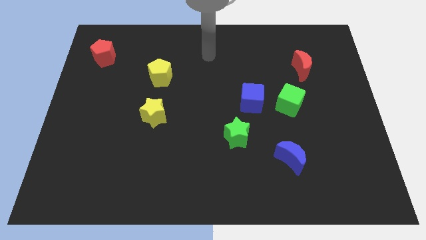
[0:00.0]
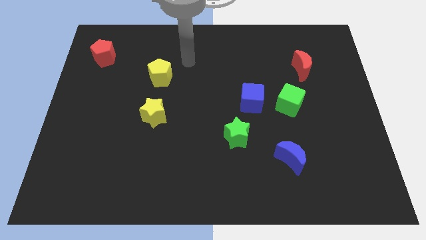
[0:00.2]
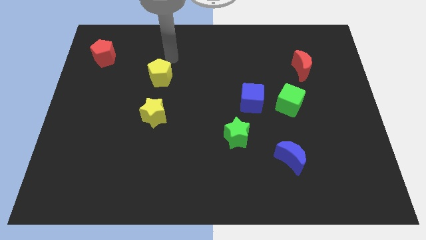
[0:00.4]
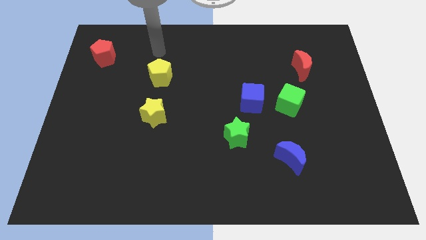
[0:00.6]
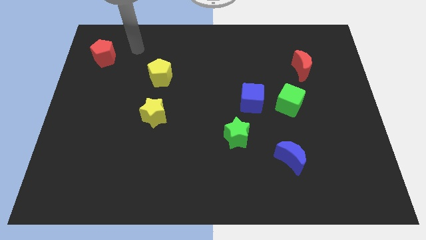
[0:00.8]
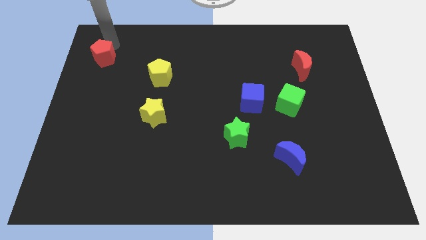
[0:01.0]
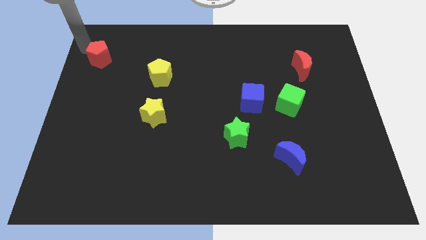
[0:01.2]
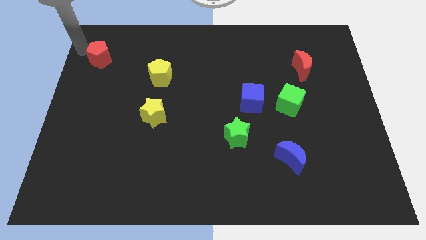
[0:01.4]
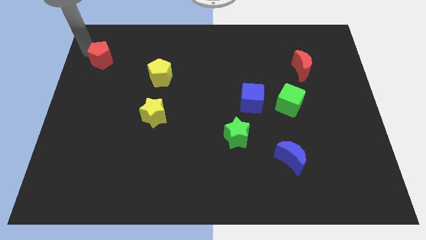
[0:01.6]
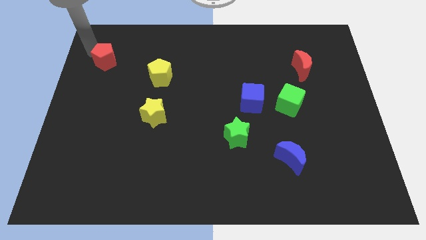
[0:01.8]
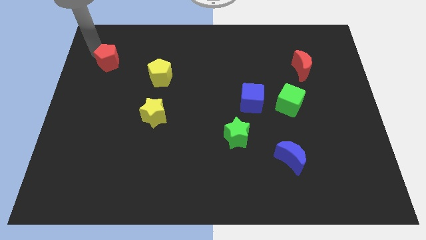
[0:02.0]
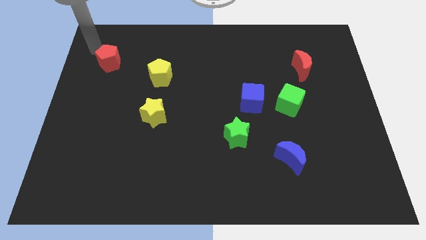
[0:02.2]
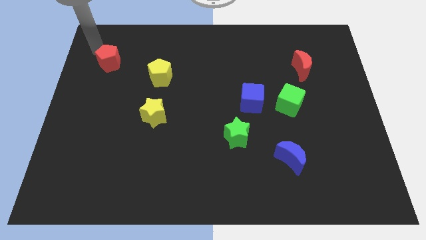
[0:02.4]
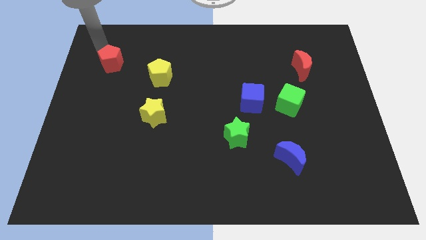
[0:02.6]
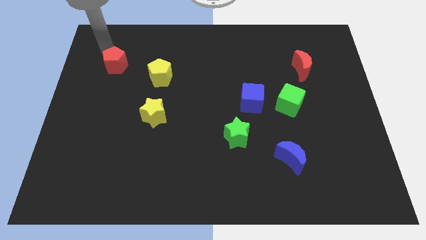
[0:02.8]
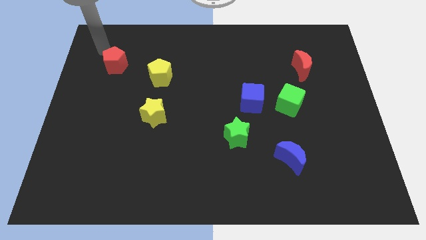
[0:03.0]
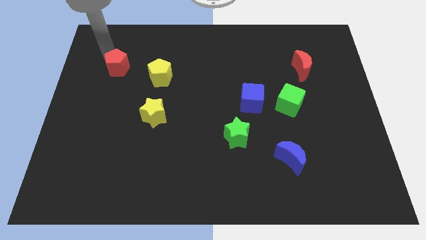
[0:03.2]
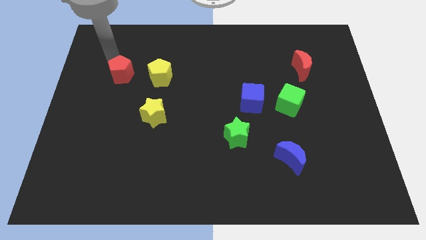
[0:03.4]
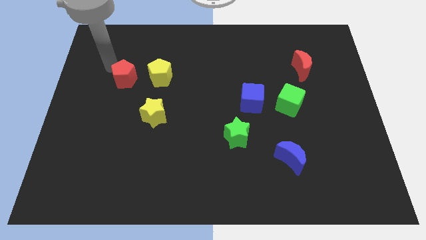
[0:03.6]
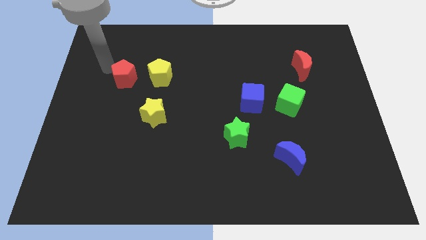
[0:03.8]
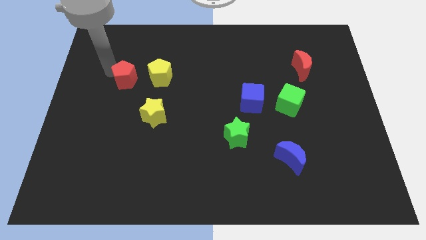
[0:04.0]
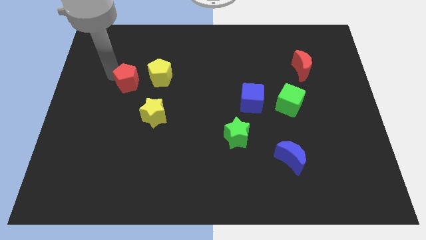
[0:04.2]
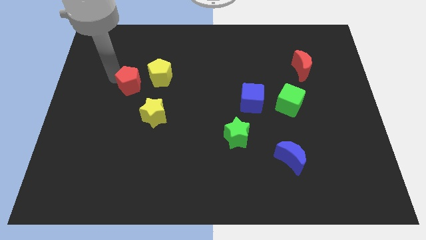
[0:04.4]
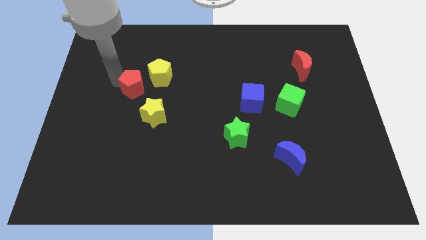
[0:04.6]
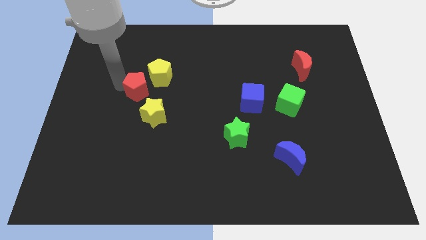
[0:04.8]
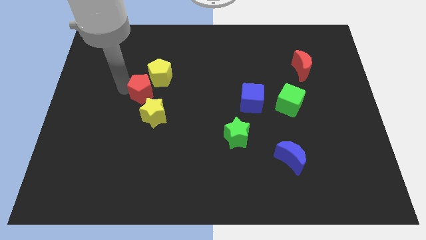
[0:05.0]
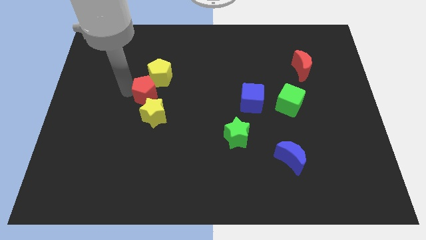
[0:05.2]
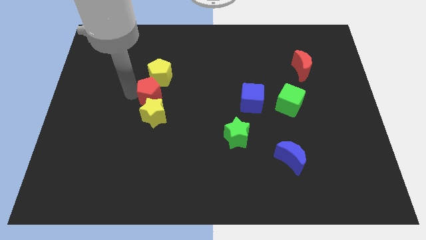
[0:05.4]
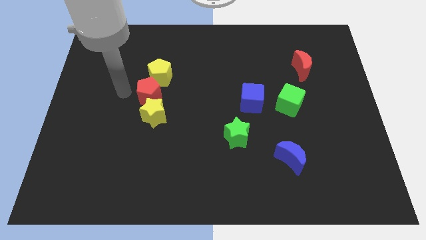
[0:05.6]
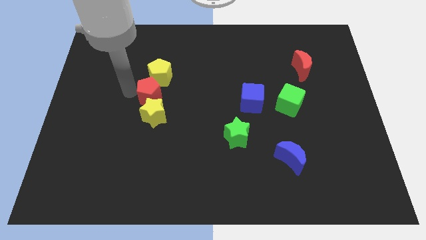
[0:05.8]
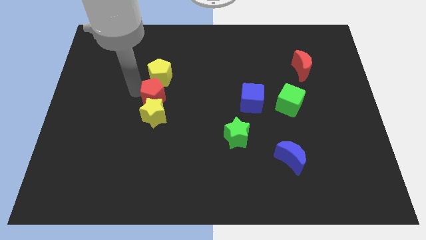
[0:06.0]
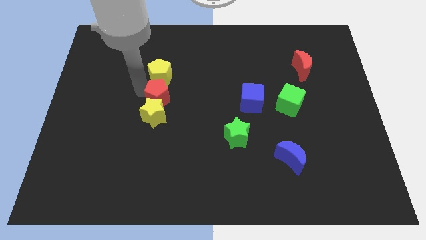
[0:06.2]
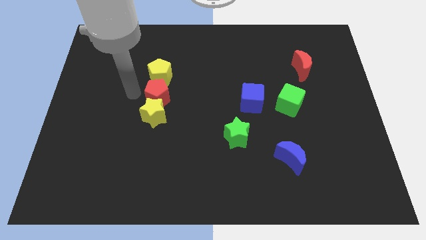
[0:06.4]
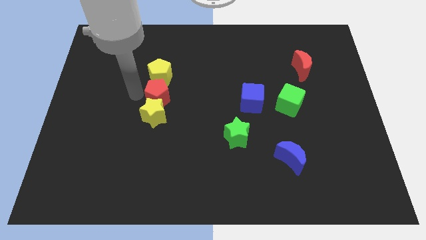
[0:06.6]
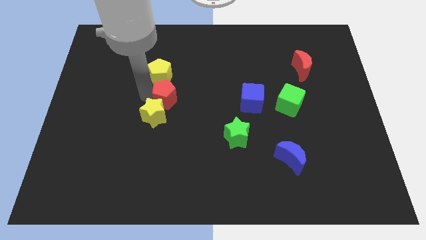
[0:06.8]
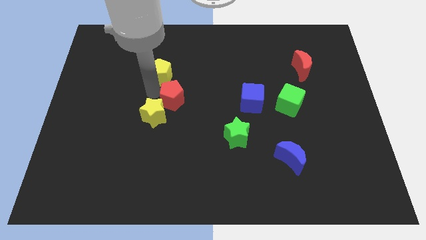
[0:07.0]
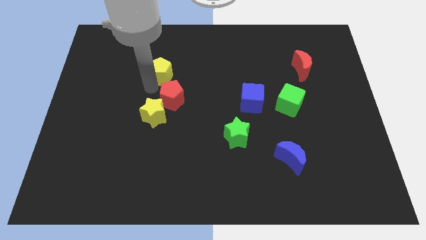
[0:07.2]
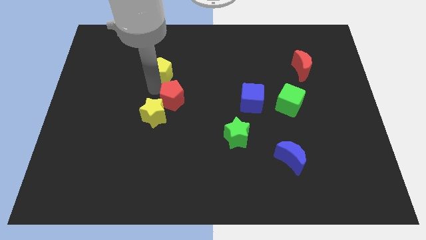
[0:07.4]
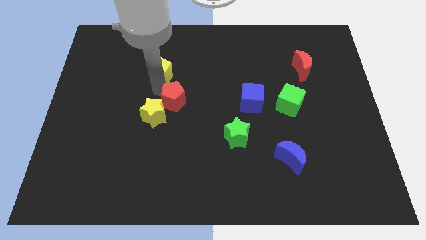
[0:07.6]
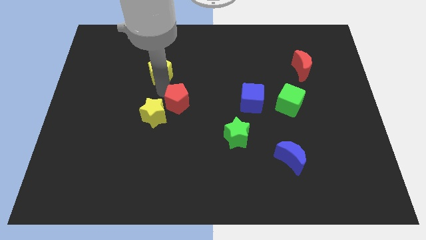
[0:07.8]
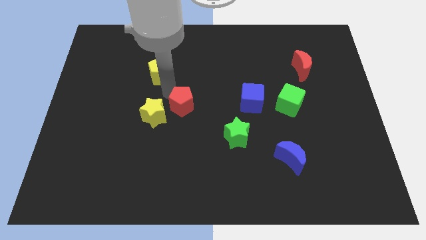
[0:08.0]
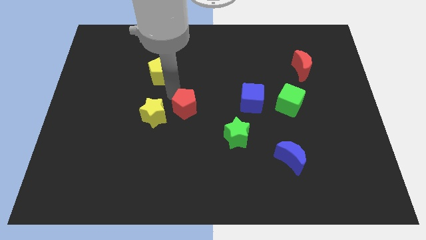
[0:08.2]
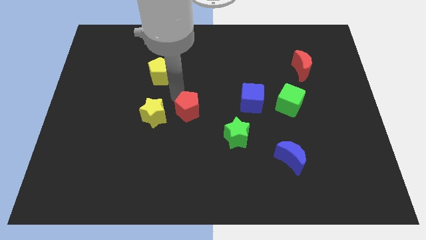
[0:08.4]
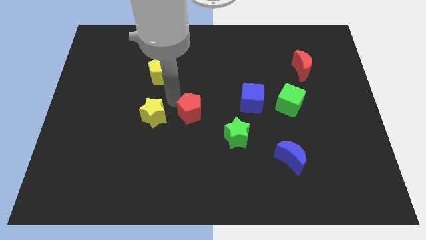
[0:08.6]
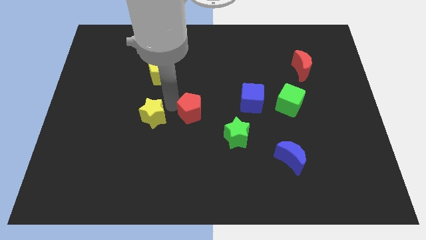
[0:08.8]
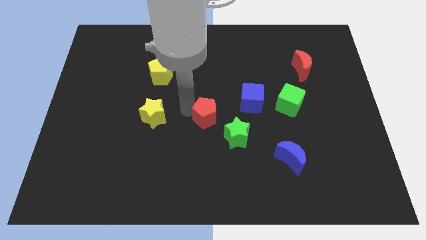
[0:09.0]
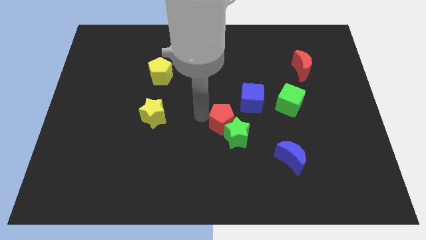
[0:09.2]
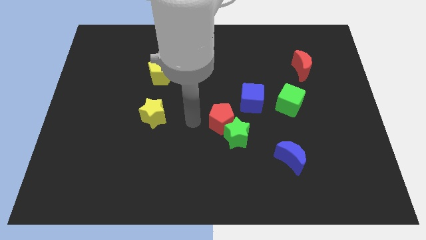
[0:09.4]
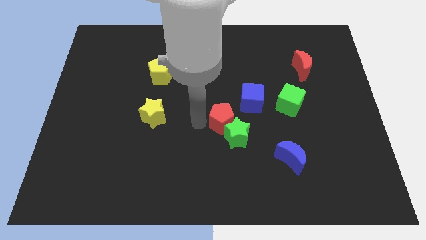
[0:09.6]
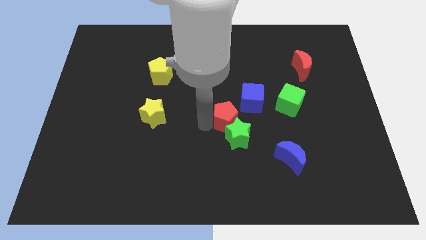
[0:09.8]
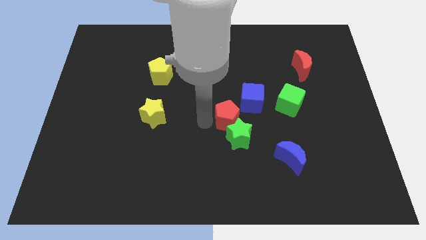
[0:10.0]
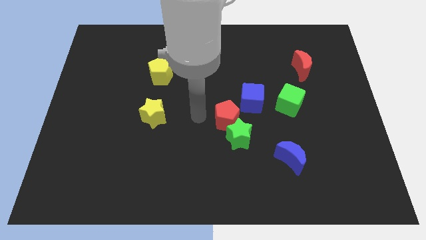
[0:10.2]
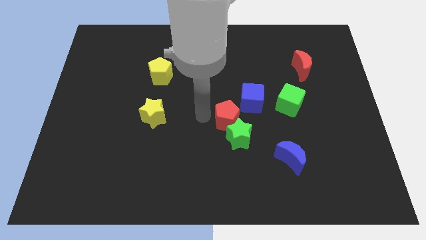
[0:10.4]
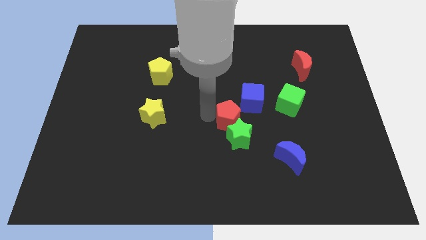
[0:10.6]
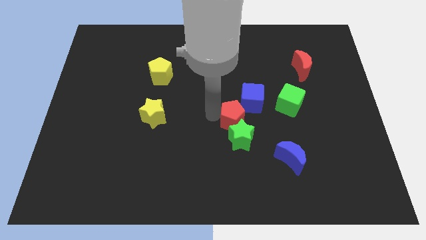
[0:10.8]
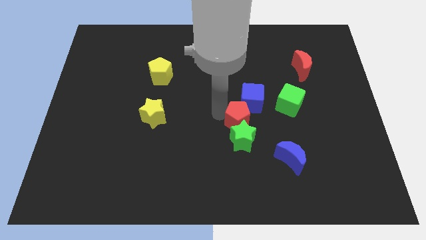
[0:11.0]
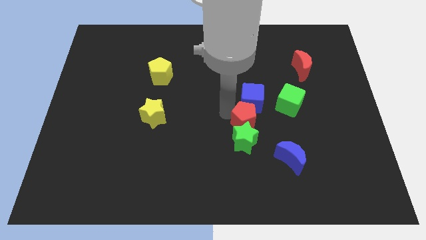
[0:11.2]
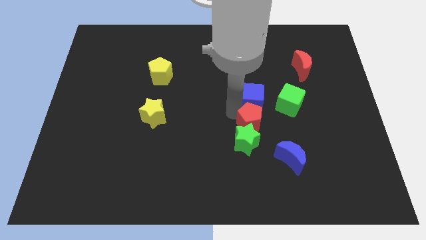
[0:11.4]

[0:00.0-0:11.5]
put the red pentagon diagonally up and to the left of the blue moon

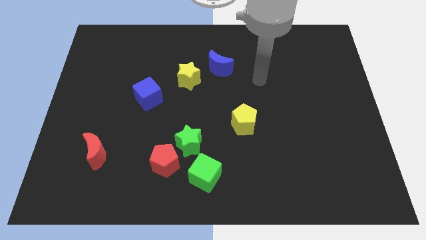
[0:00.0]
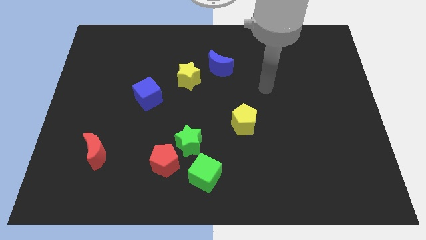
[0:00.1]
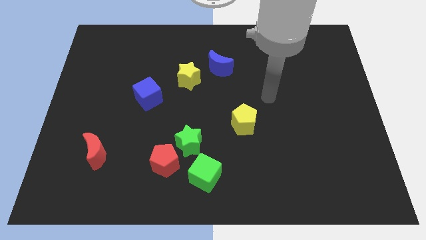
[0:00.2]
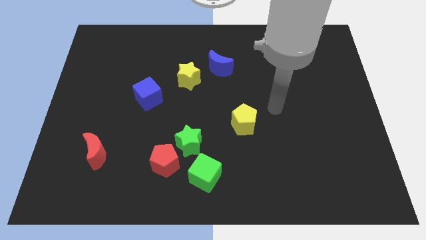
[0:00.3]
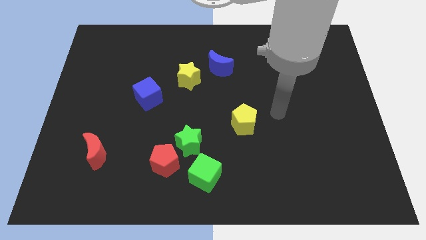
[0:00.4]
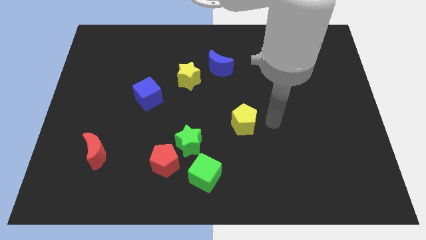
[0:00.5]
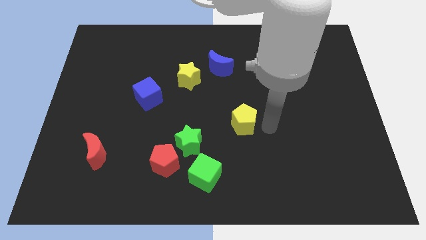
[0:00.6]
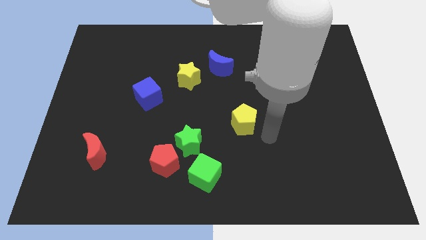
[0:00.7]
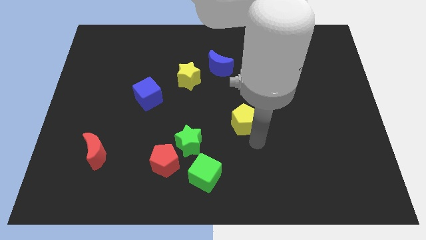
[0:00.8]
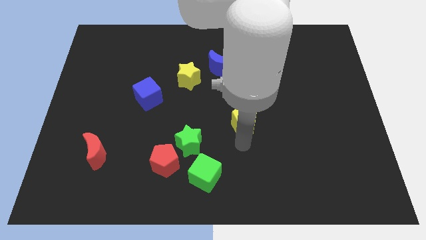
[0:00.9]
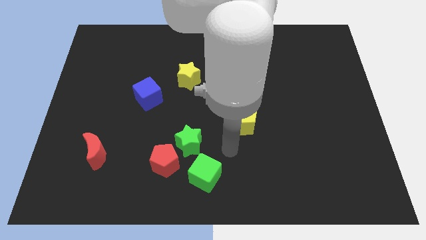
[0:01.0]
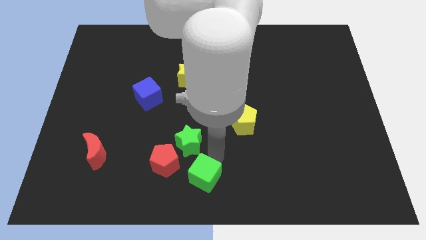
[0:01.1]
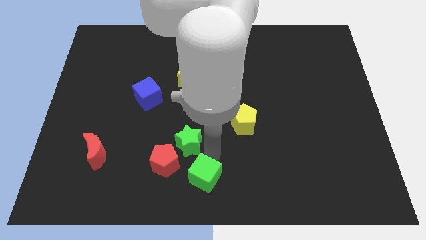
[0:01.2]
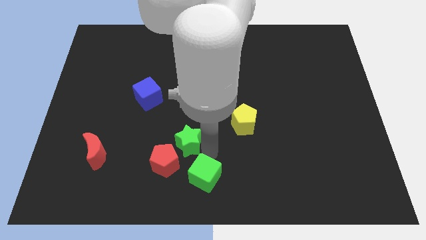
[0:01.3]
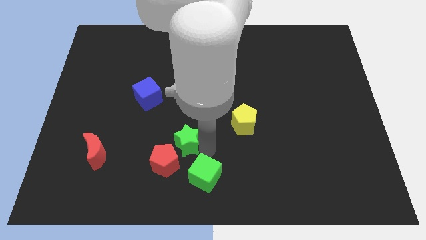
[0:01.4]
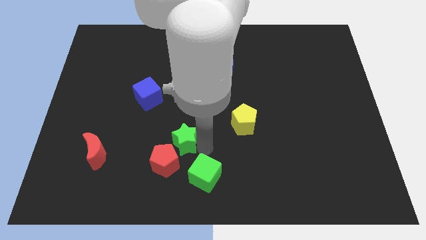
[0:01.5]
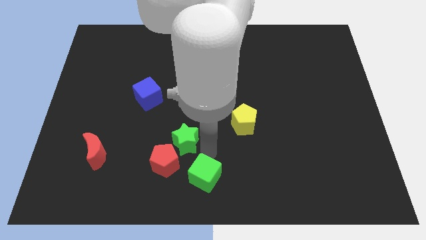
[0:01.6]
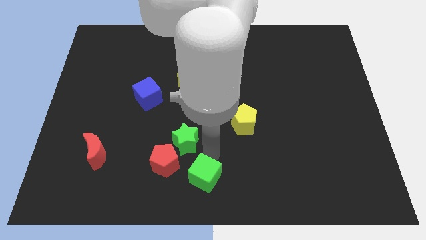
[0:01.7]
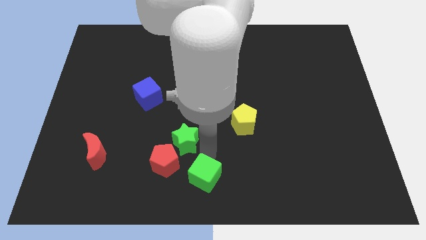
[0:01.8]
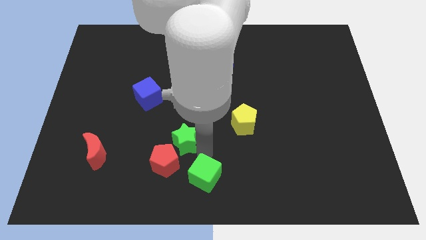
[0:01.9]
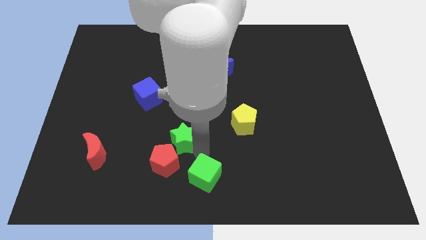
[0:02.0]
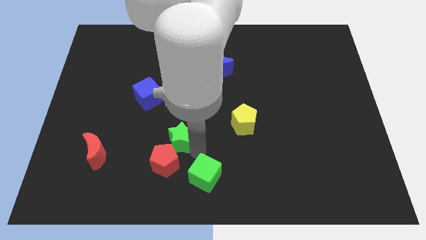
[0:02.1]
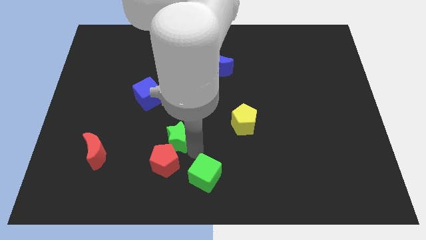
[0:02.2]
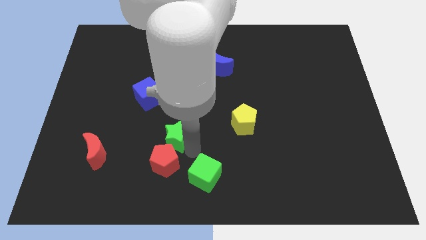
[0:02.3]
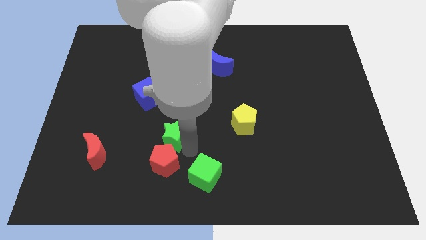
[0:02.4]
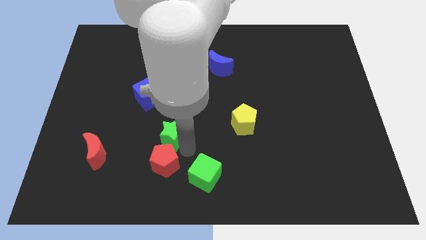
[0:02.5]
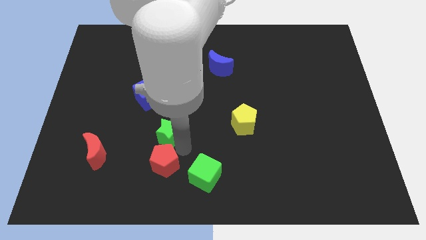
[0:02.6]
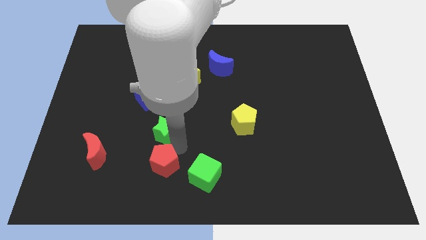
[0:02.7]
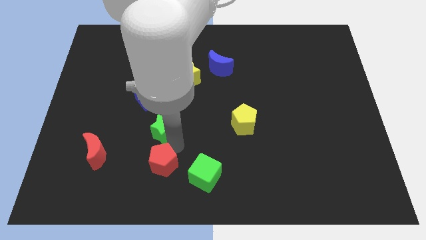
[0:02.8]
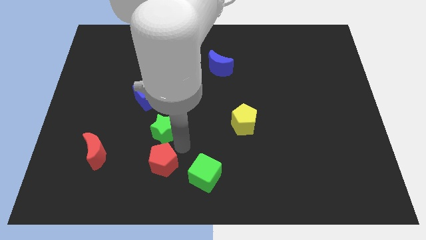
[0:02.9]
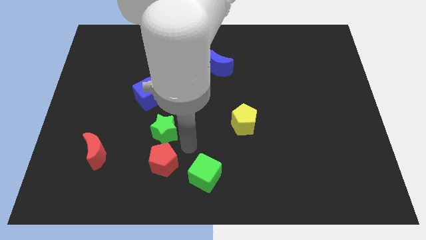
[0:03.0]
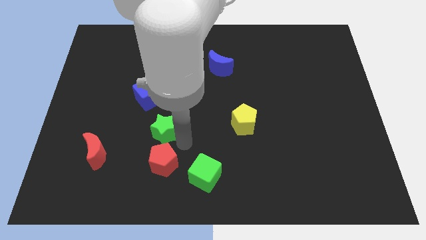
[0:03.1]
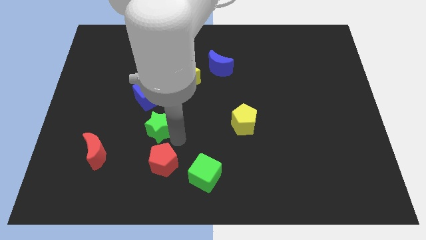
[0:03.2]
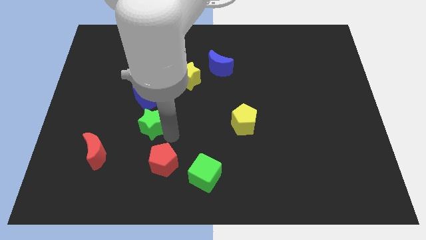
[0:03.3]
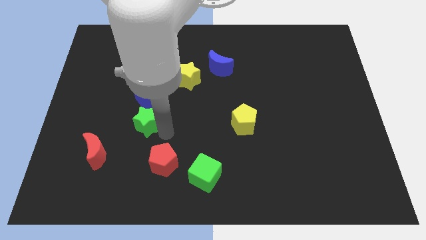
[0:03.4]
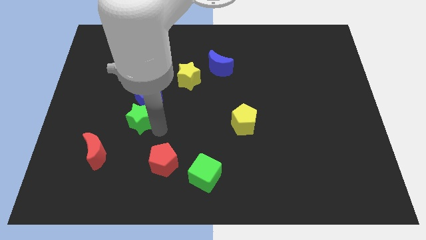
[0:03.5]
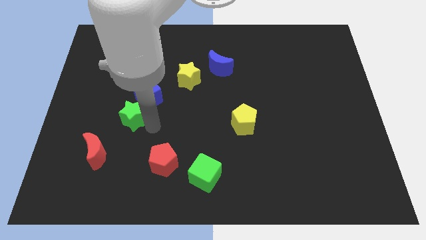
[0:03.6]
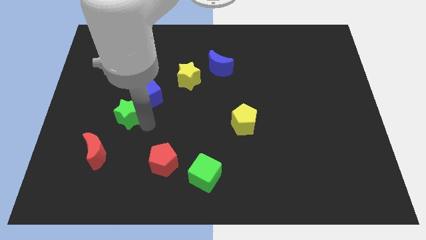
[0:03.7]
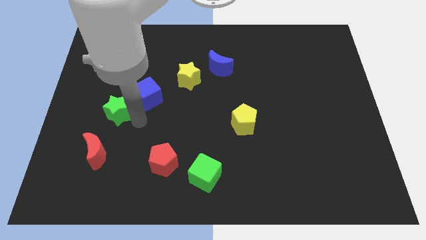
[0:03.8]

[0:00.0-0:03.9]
put the green star left of the blue cube
